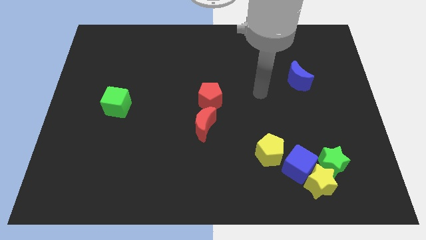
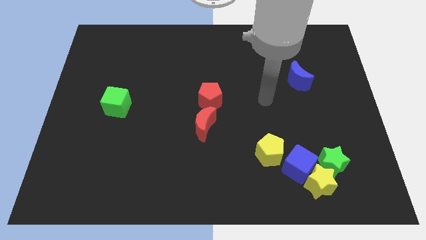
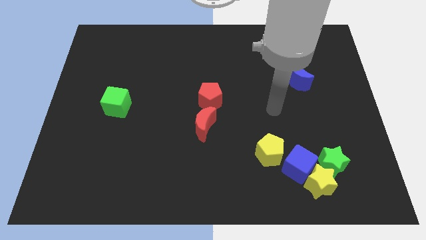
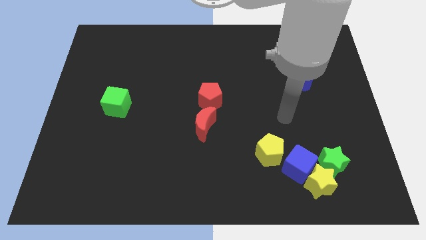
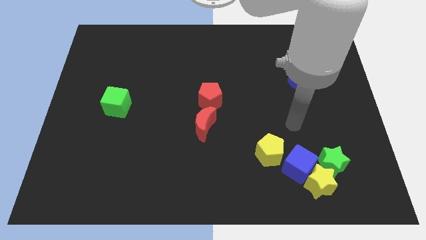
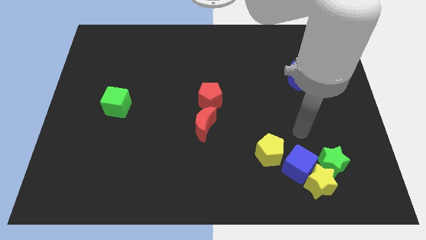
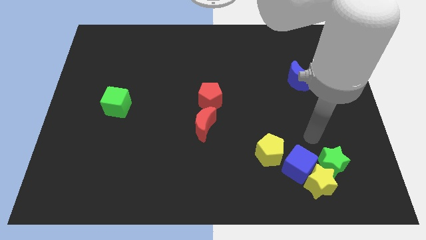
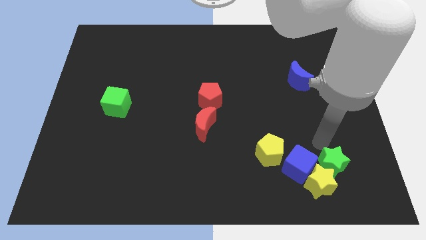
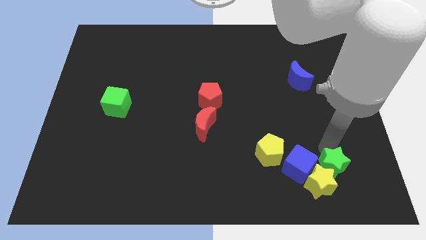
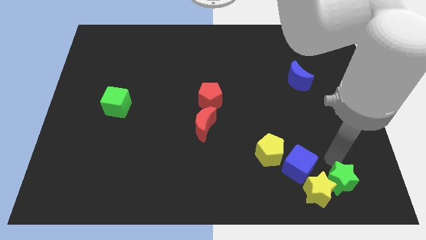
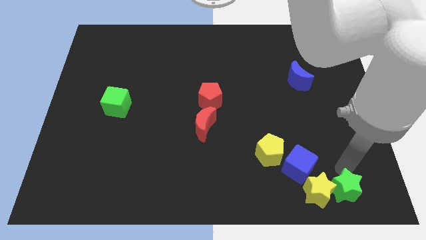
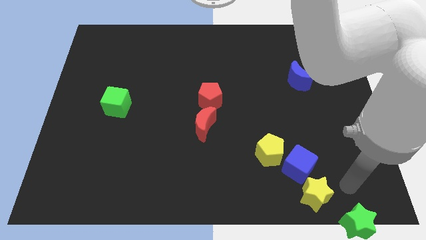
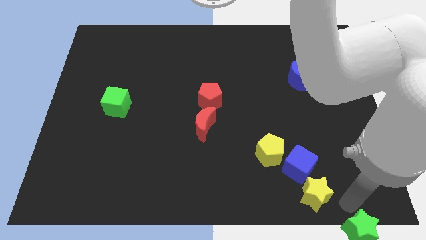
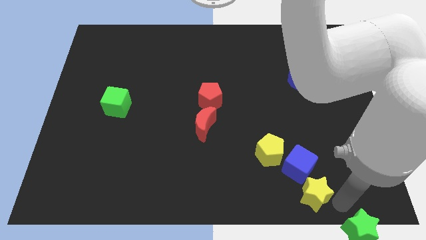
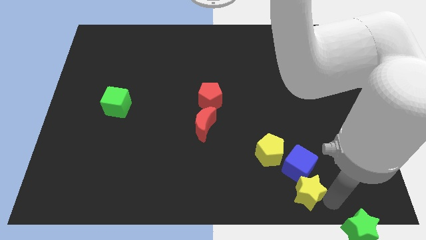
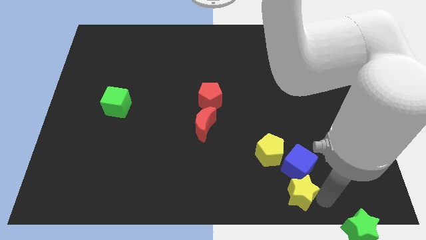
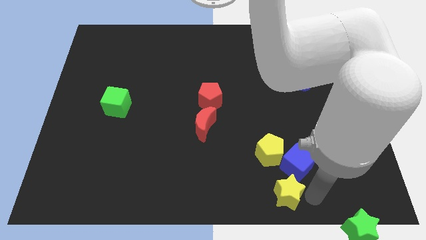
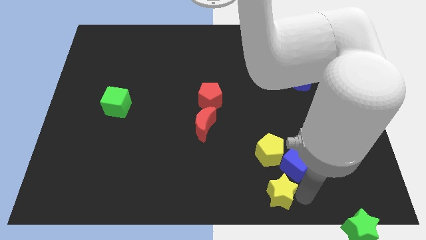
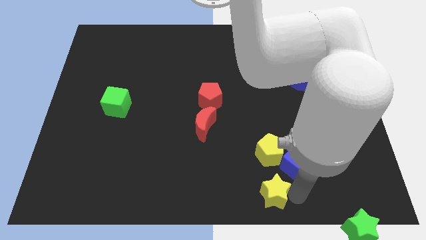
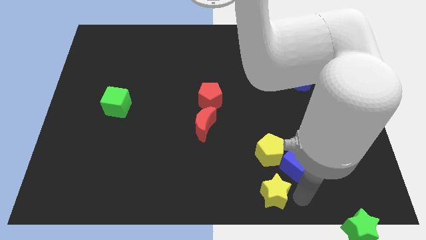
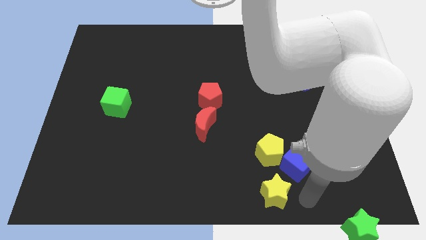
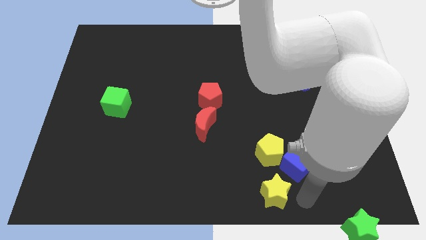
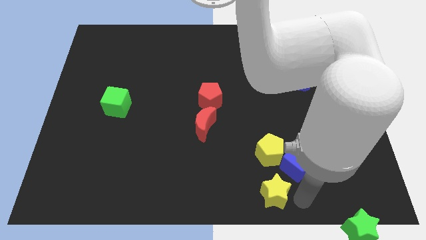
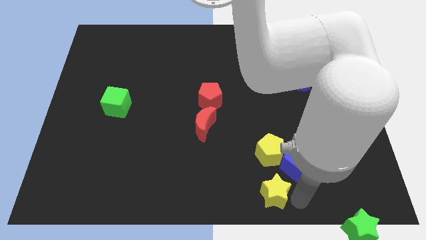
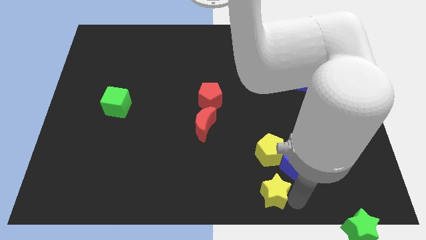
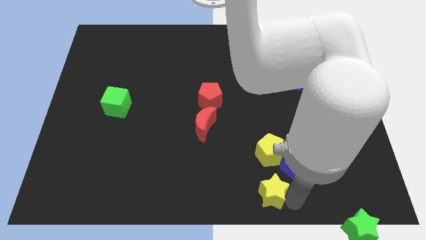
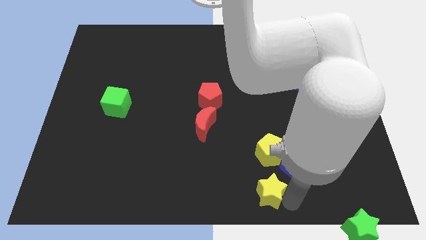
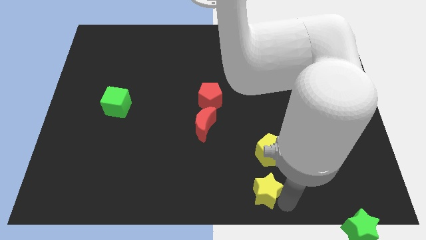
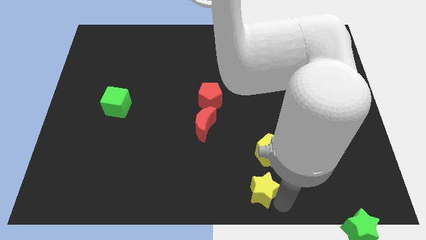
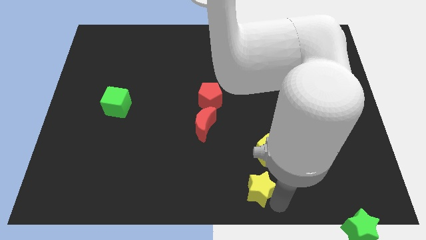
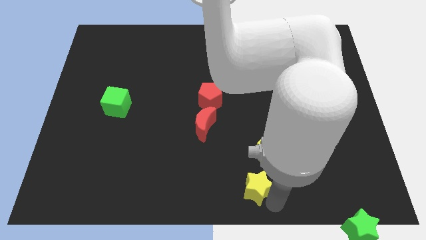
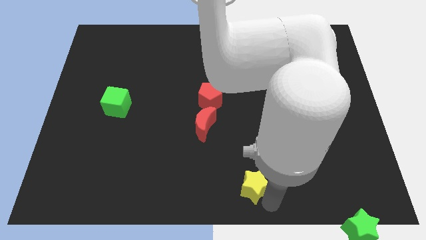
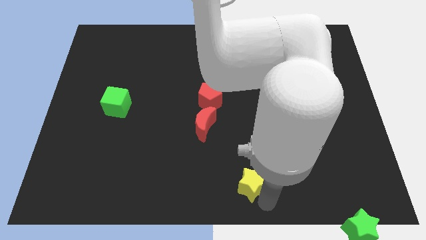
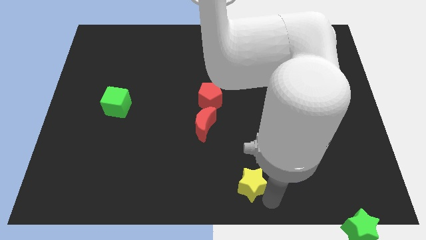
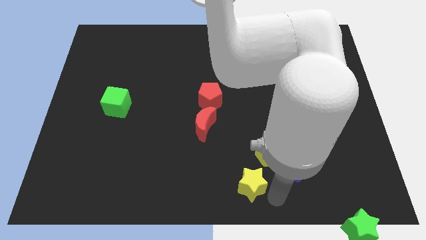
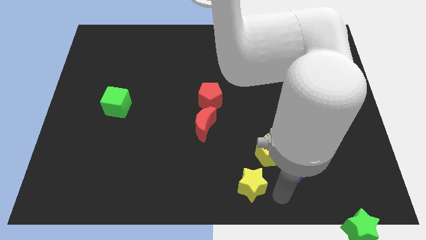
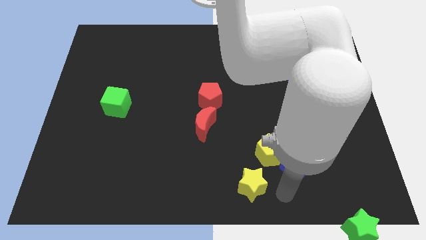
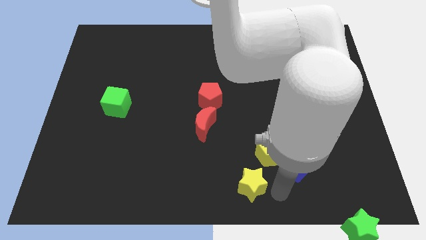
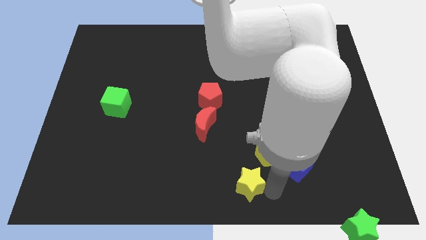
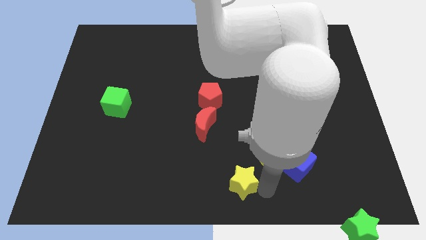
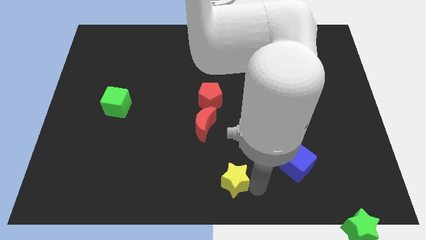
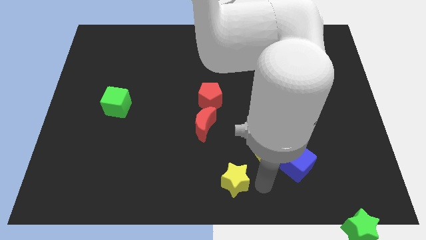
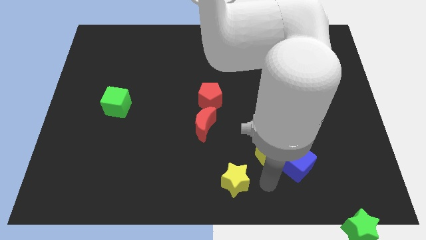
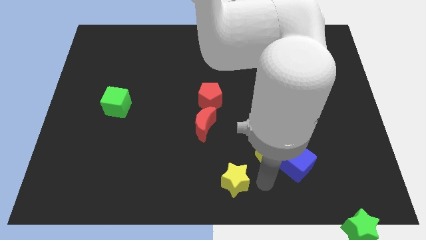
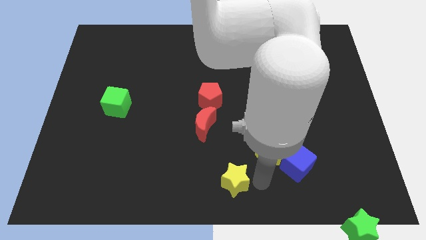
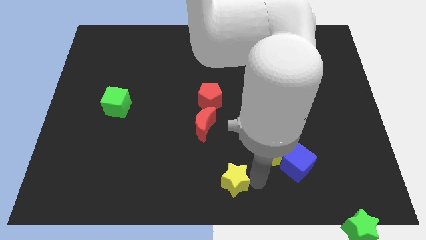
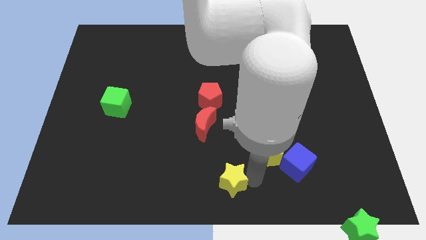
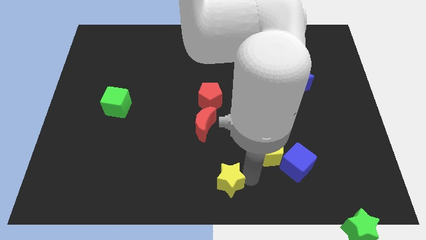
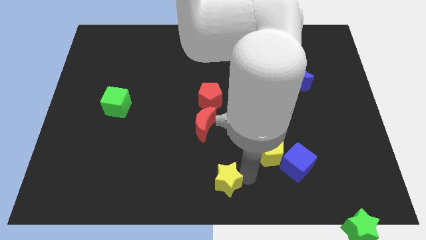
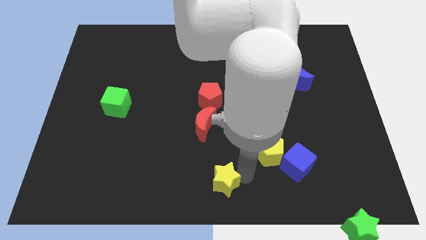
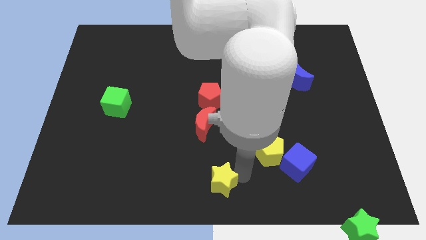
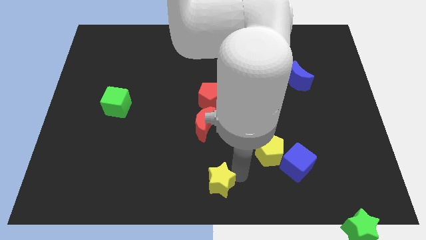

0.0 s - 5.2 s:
slide the yellow star to the left

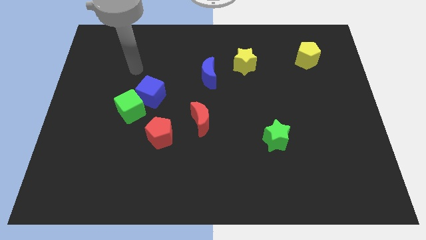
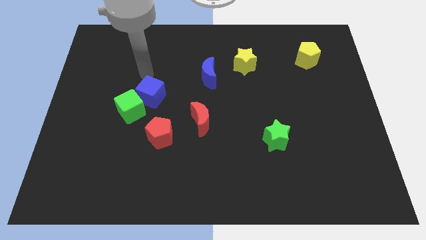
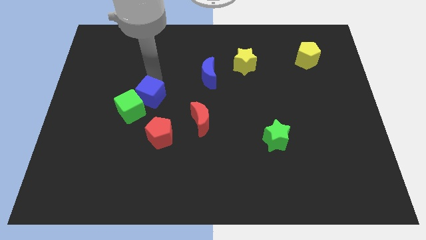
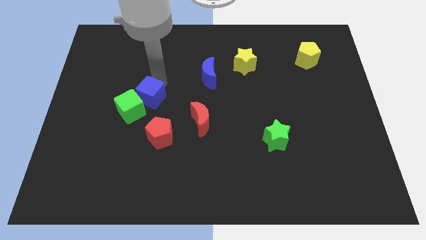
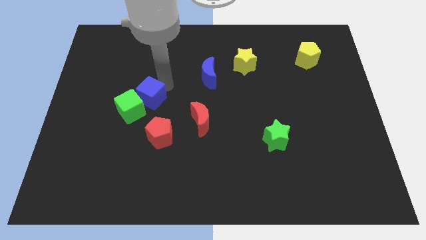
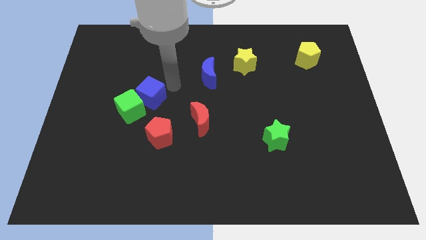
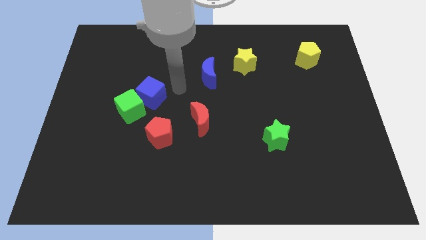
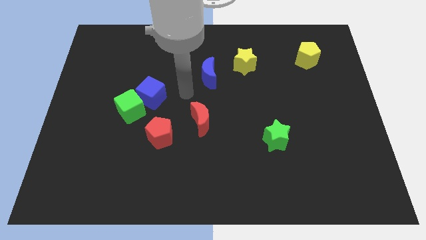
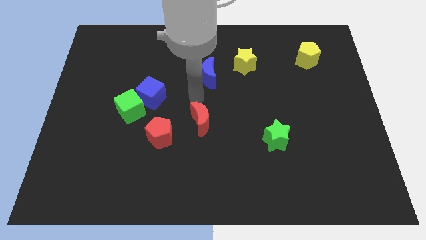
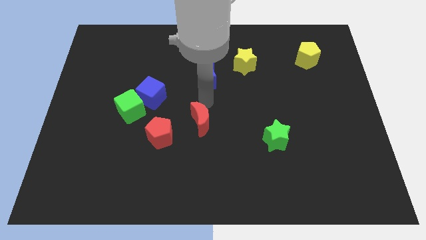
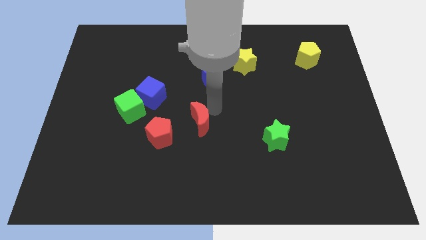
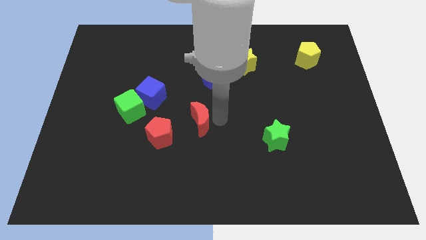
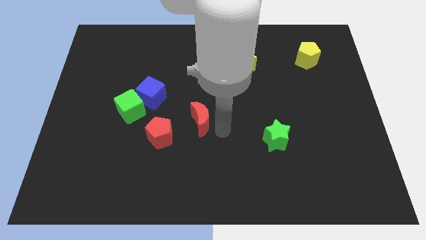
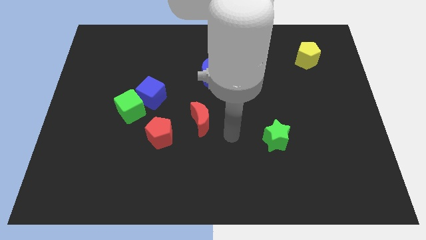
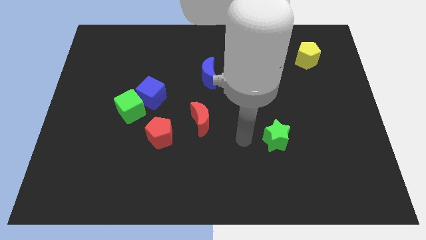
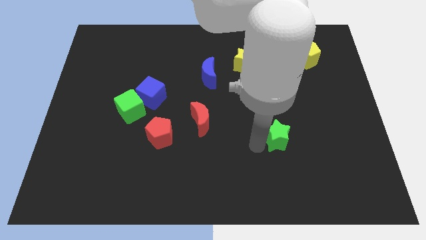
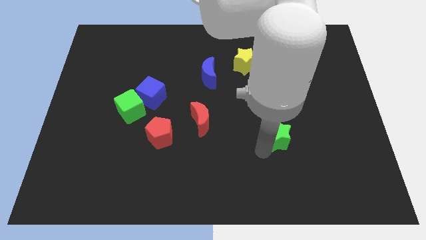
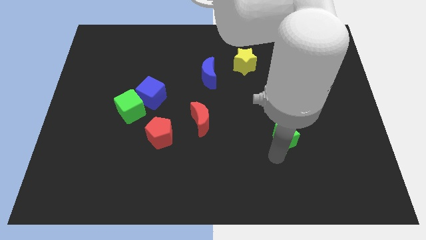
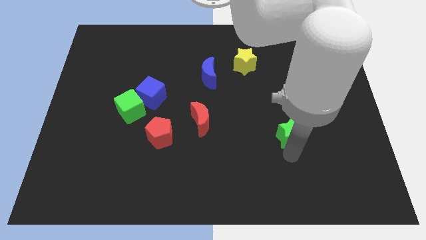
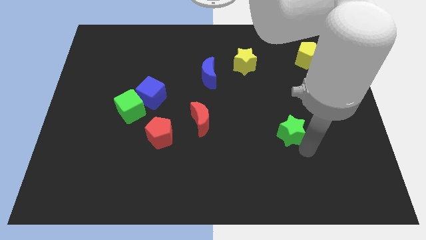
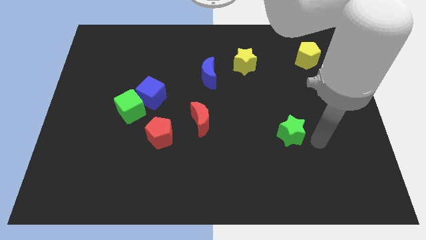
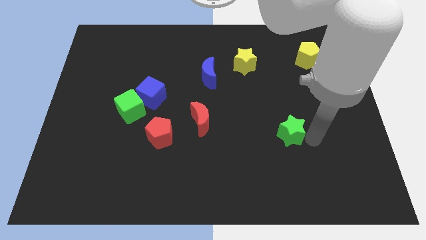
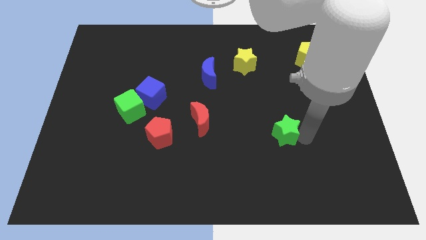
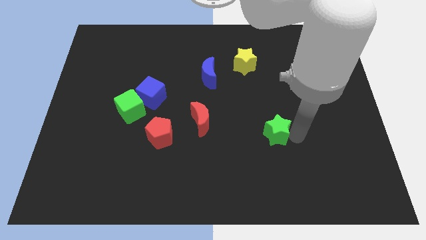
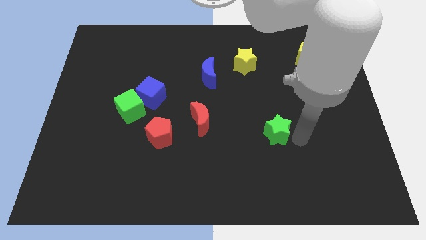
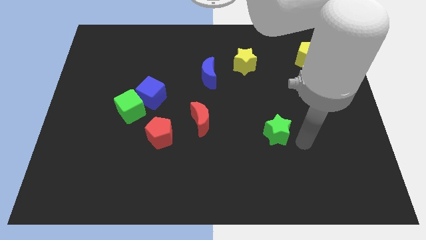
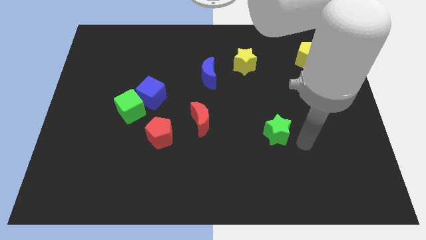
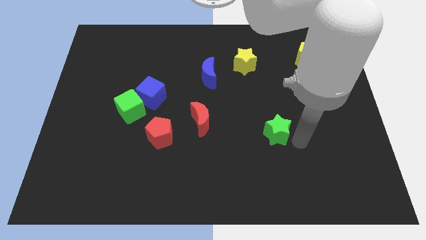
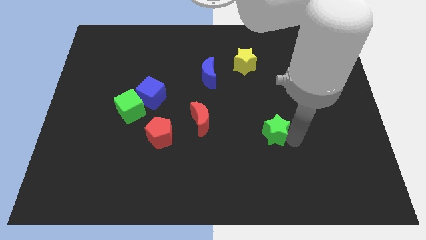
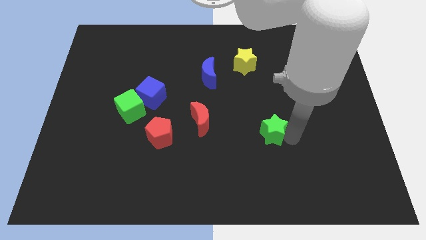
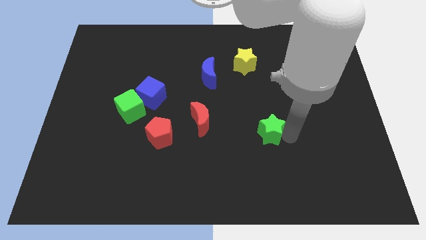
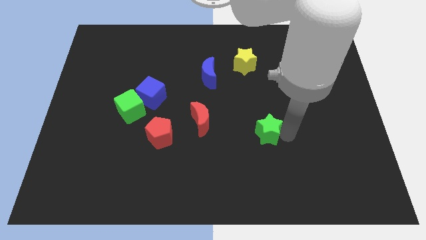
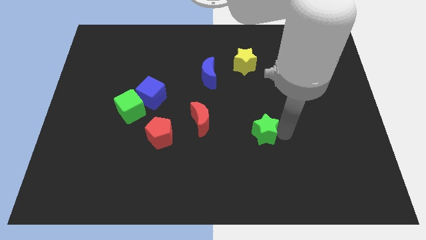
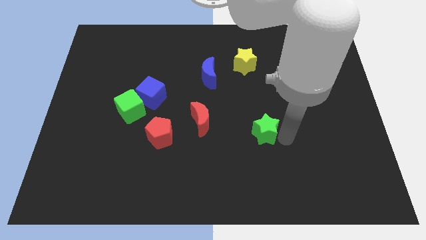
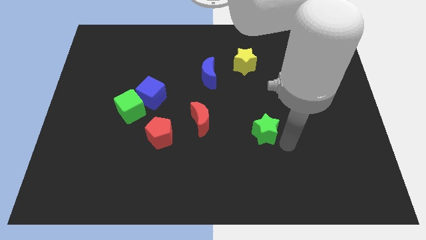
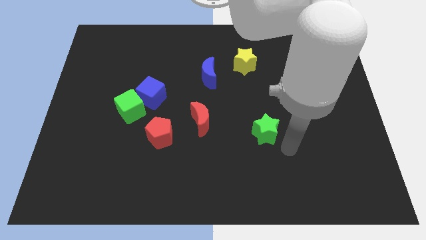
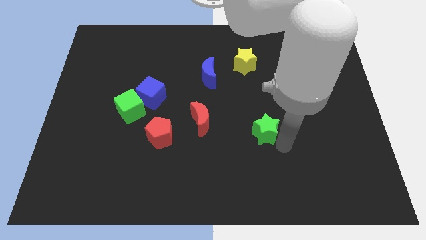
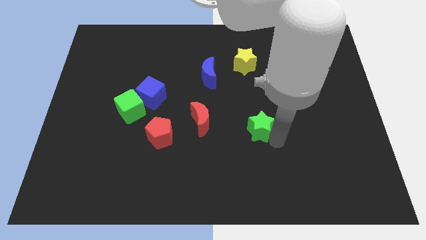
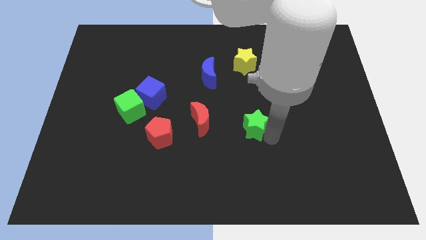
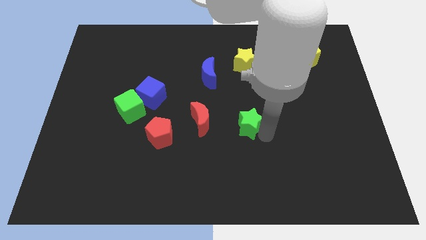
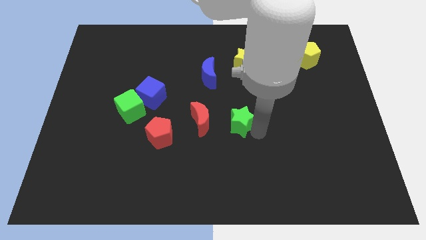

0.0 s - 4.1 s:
push the green star up and then to the left a bit
